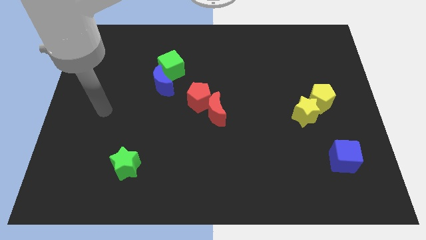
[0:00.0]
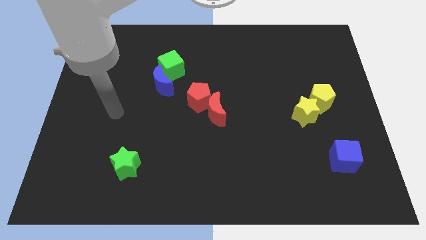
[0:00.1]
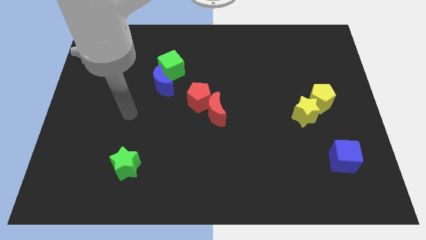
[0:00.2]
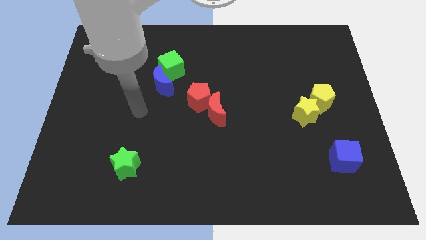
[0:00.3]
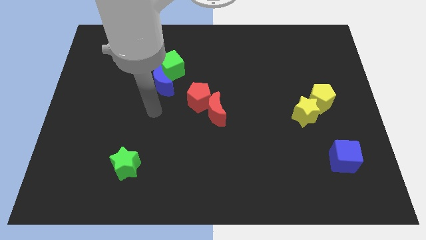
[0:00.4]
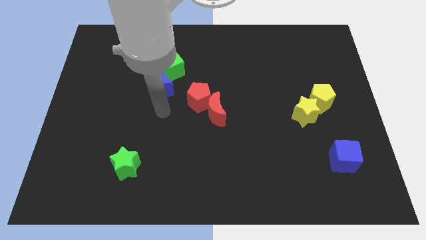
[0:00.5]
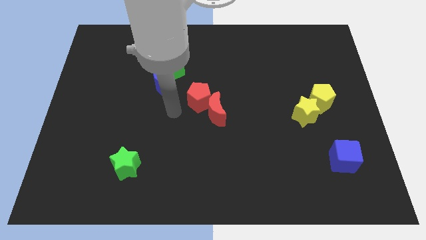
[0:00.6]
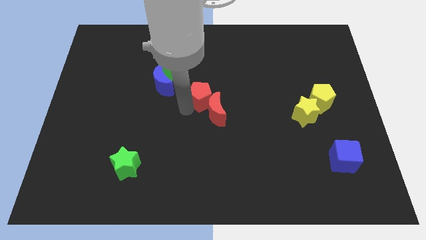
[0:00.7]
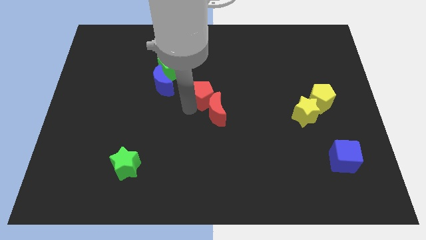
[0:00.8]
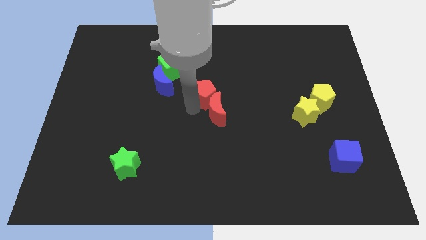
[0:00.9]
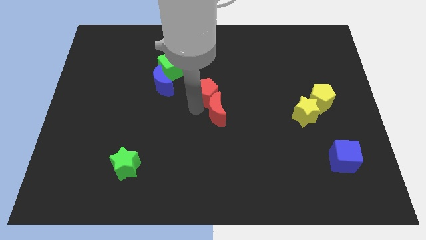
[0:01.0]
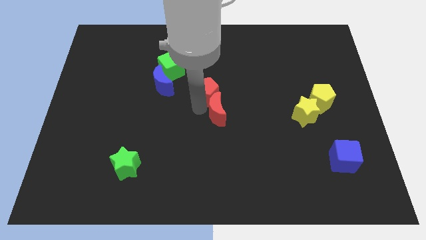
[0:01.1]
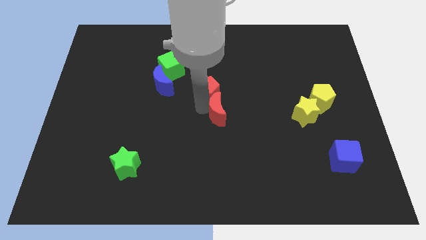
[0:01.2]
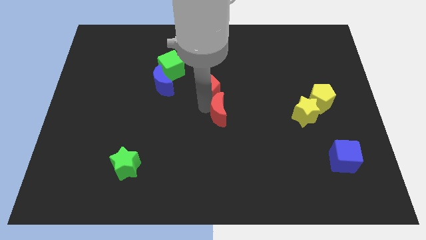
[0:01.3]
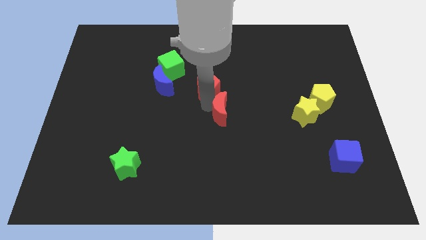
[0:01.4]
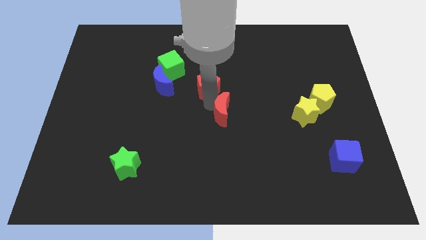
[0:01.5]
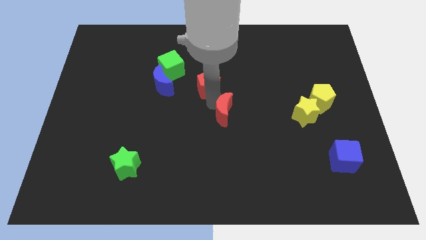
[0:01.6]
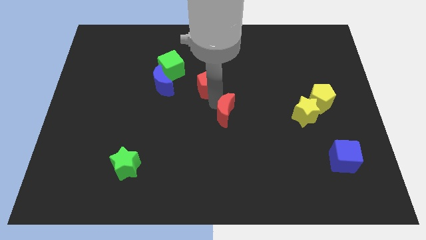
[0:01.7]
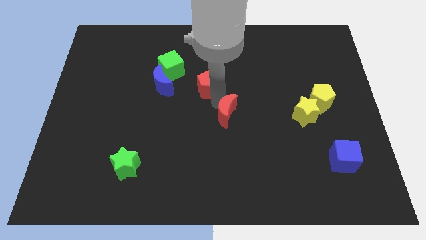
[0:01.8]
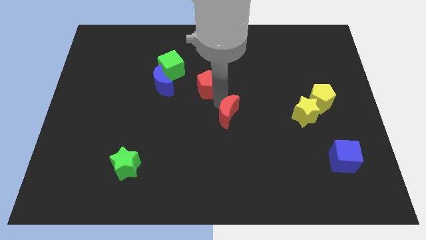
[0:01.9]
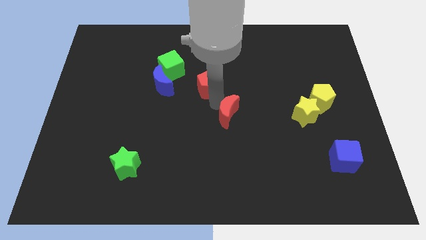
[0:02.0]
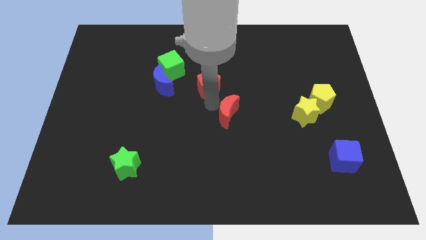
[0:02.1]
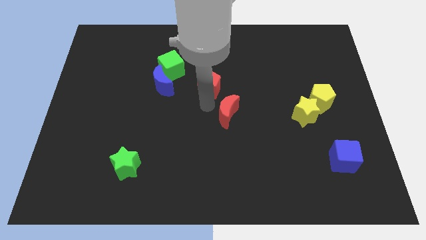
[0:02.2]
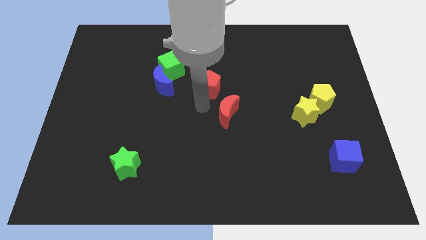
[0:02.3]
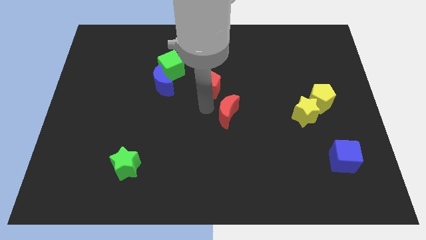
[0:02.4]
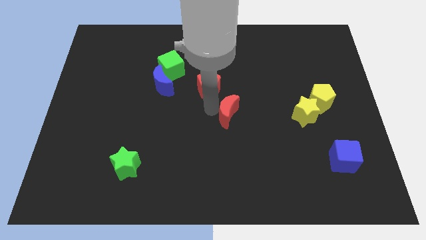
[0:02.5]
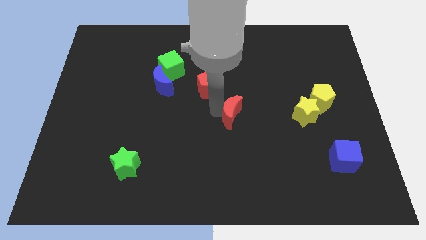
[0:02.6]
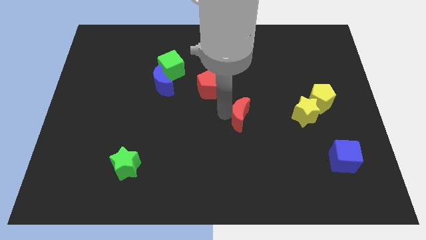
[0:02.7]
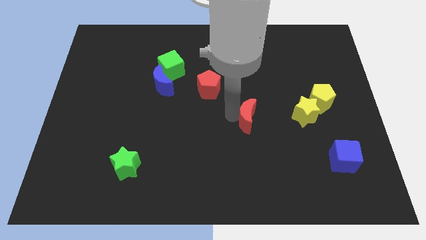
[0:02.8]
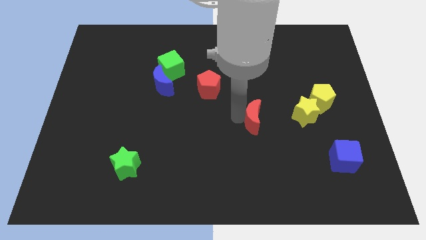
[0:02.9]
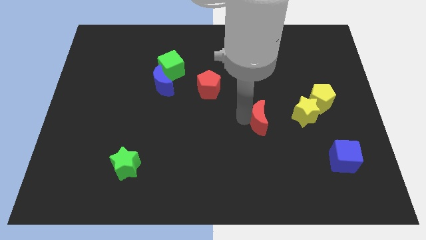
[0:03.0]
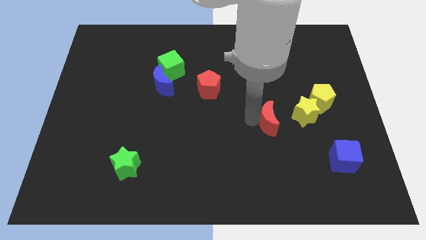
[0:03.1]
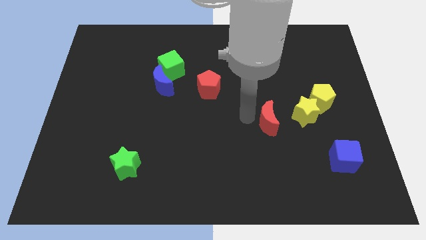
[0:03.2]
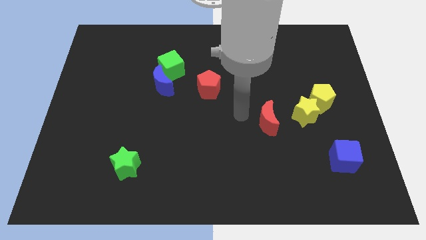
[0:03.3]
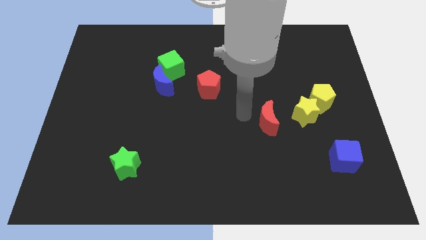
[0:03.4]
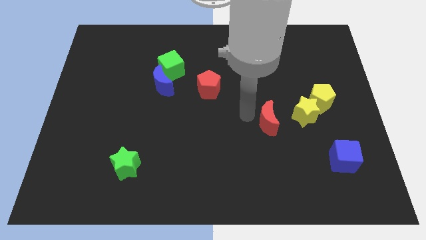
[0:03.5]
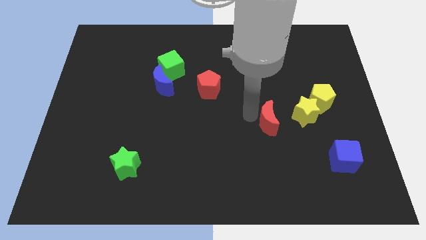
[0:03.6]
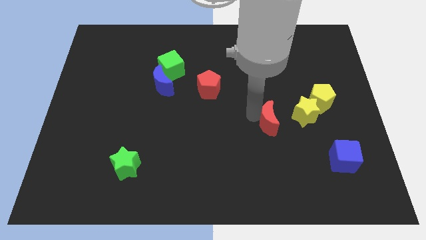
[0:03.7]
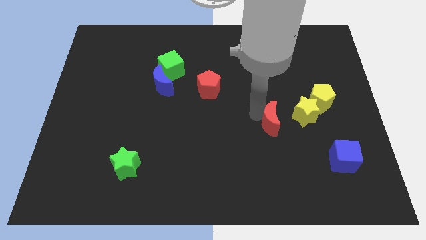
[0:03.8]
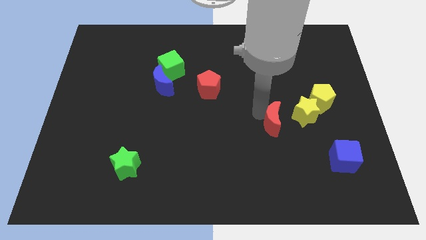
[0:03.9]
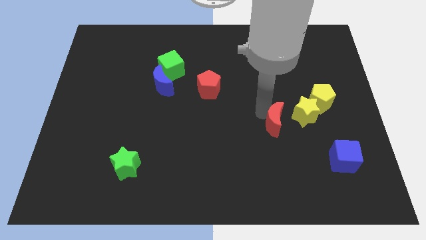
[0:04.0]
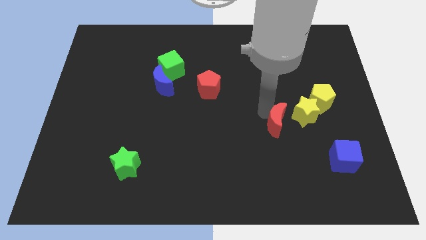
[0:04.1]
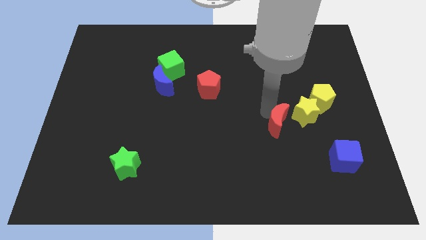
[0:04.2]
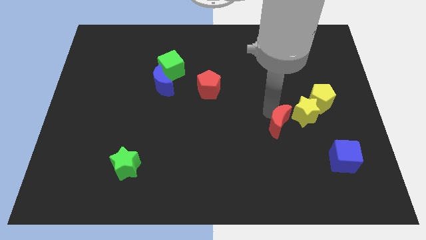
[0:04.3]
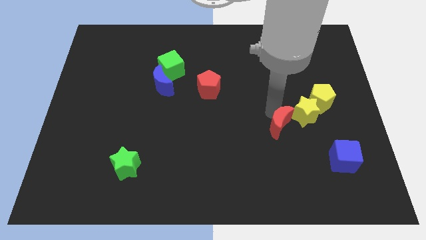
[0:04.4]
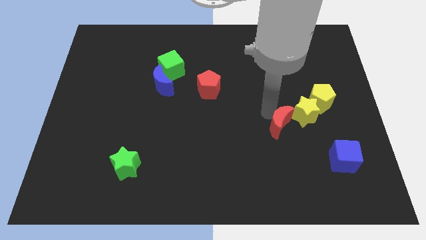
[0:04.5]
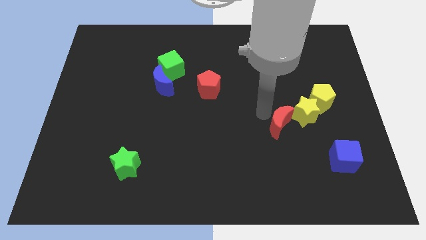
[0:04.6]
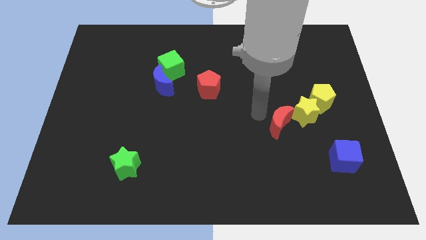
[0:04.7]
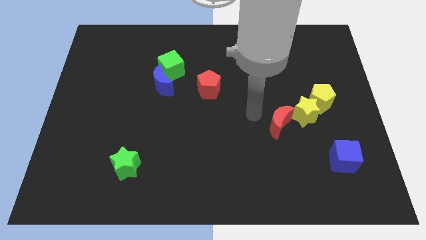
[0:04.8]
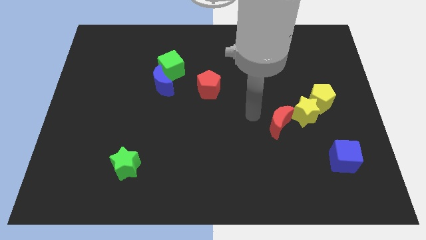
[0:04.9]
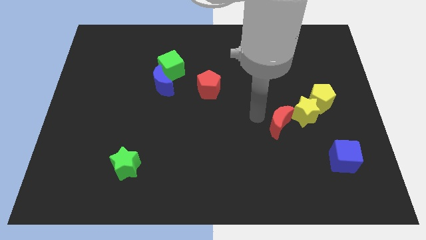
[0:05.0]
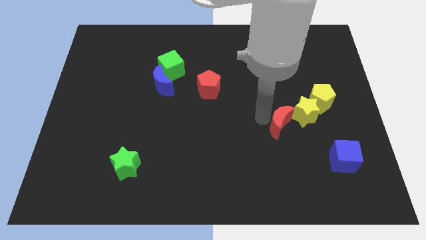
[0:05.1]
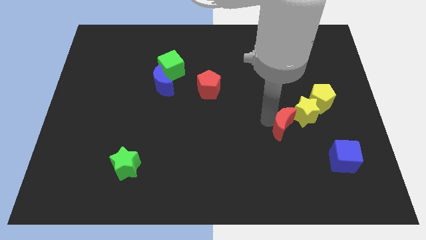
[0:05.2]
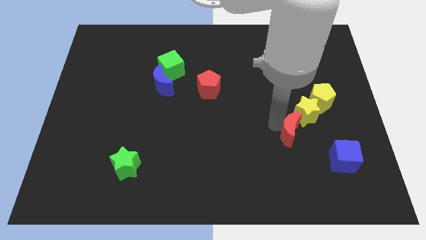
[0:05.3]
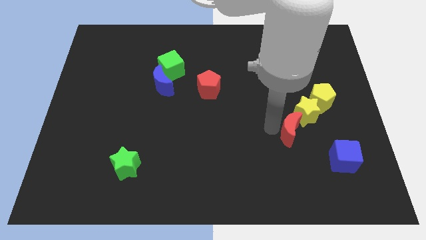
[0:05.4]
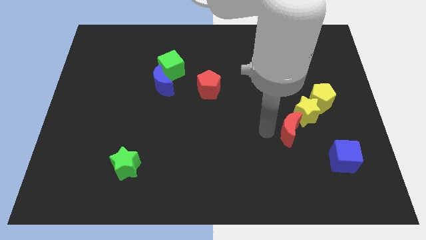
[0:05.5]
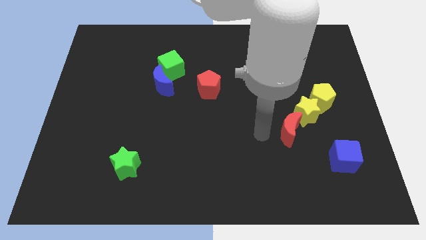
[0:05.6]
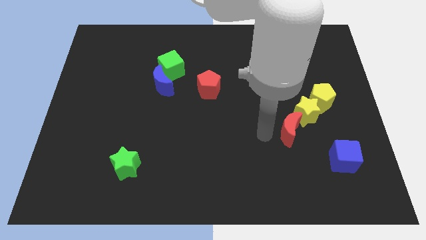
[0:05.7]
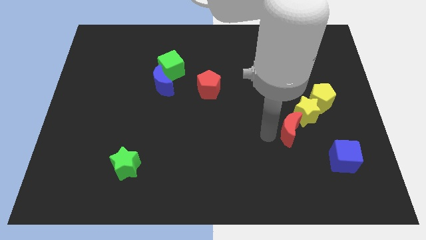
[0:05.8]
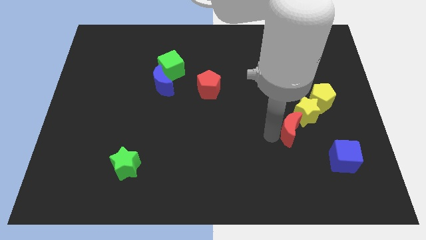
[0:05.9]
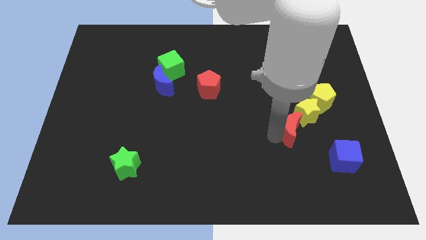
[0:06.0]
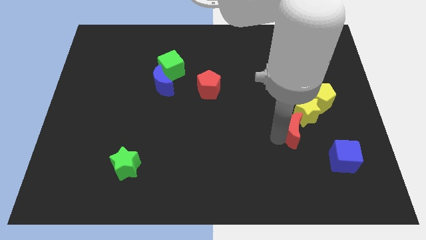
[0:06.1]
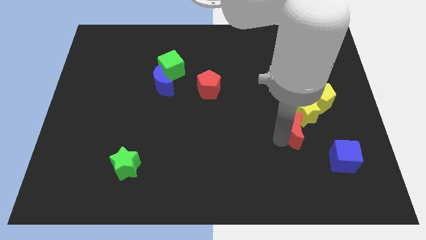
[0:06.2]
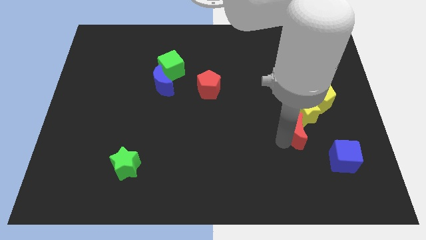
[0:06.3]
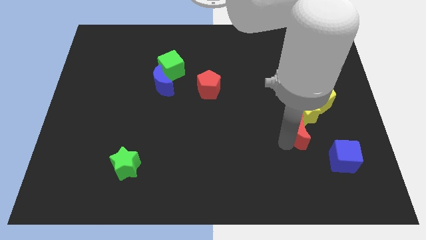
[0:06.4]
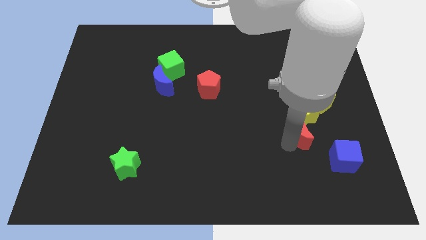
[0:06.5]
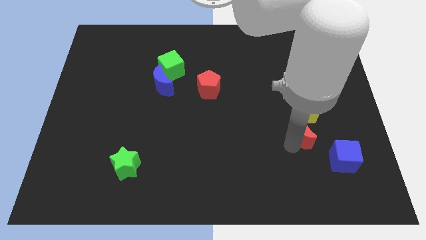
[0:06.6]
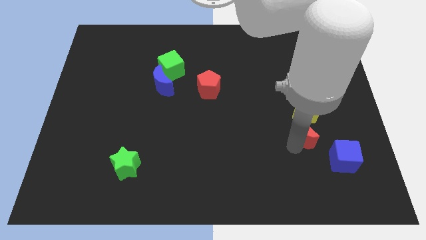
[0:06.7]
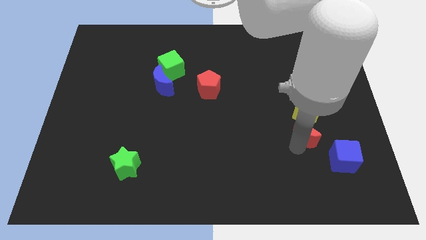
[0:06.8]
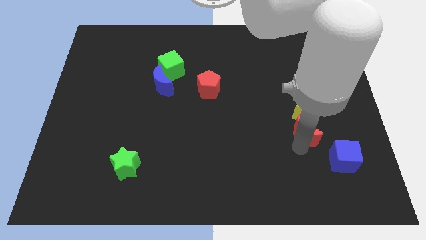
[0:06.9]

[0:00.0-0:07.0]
move the red moon to the bottom right of the yellow star
